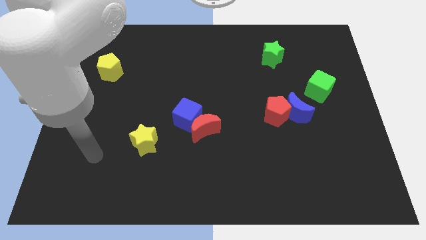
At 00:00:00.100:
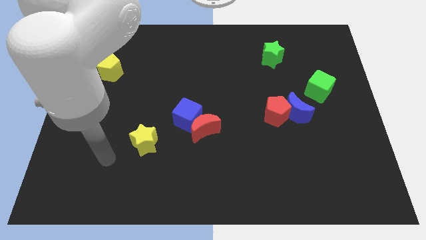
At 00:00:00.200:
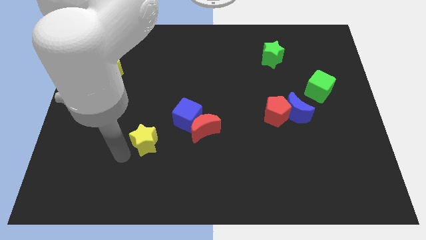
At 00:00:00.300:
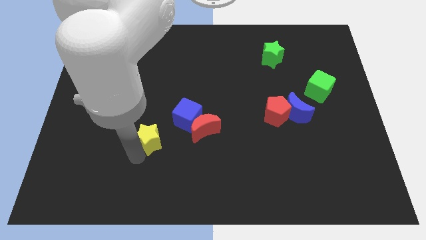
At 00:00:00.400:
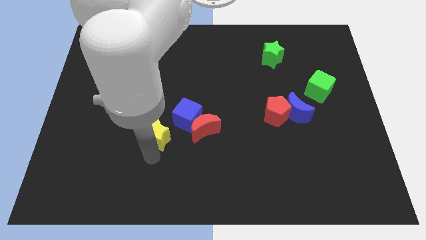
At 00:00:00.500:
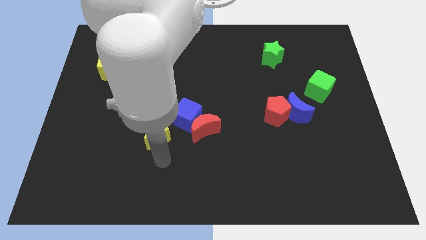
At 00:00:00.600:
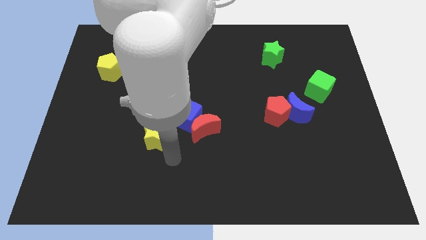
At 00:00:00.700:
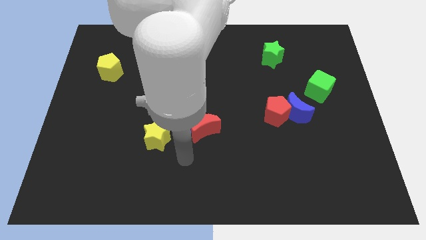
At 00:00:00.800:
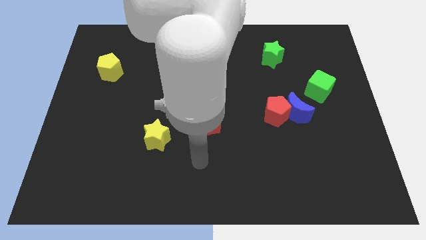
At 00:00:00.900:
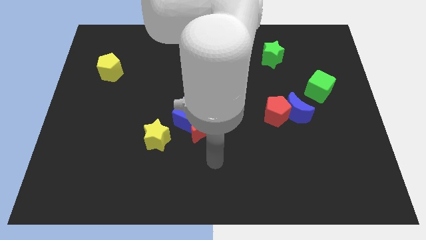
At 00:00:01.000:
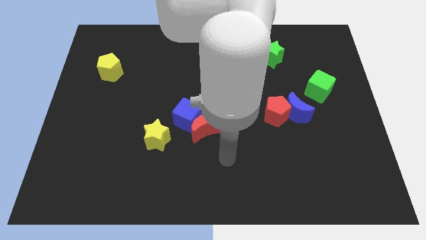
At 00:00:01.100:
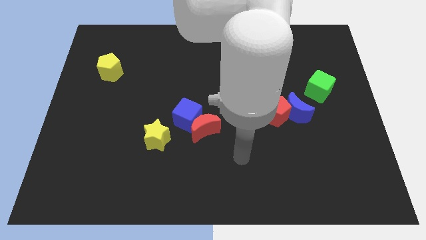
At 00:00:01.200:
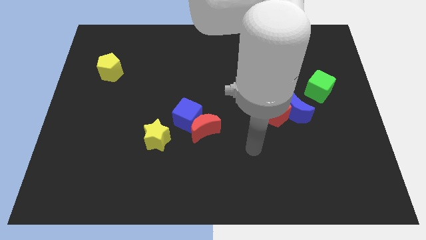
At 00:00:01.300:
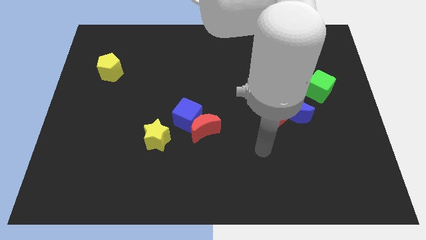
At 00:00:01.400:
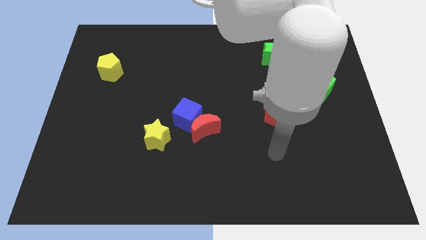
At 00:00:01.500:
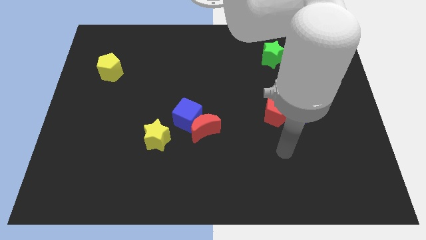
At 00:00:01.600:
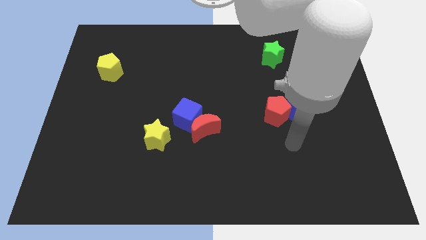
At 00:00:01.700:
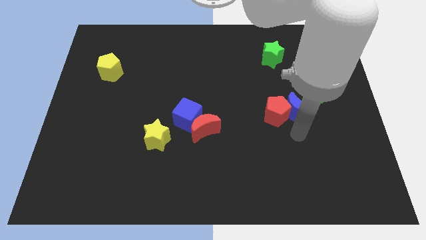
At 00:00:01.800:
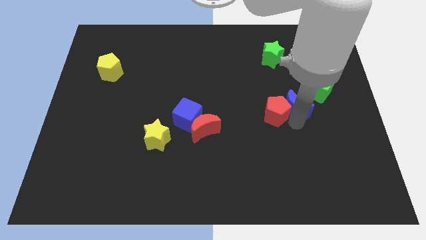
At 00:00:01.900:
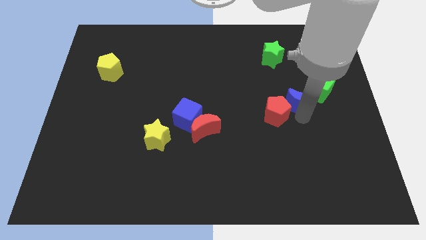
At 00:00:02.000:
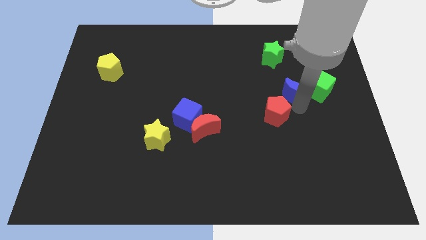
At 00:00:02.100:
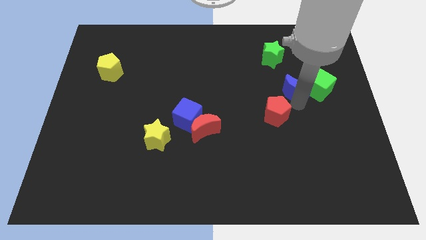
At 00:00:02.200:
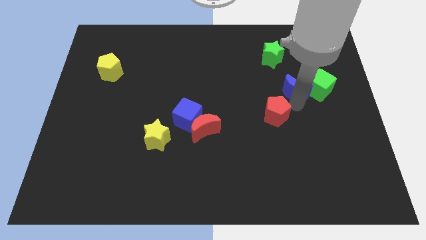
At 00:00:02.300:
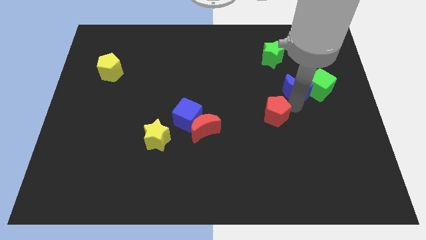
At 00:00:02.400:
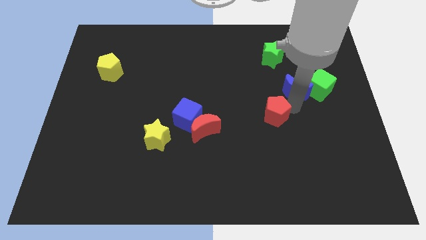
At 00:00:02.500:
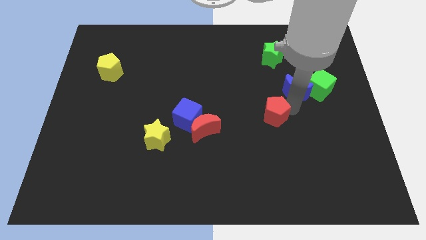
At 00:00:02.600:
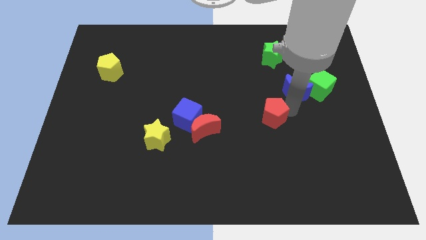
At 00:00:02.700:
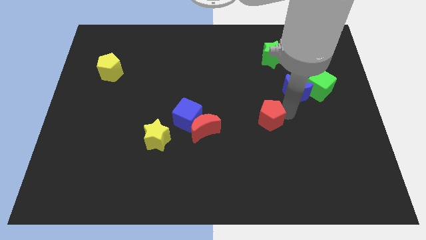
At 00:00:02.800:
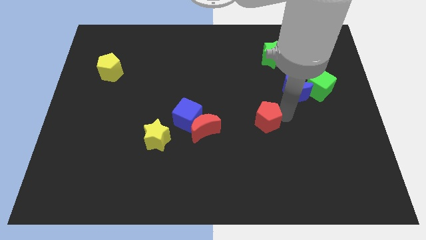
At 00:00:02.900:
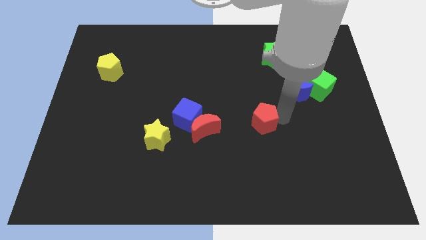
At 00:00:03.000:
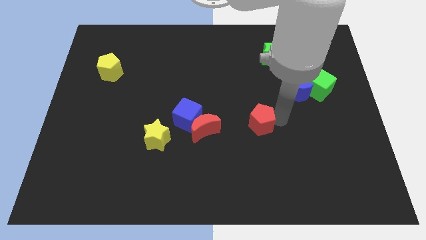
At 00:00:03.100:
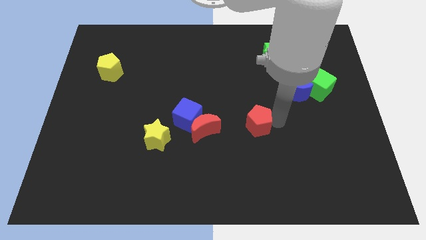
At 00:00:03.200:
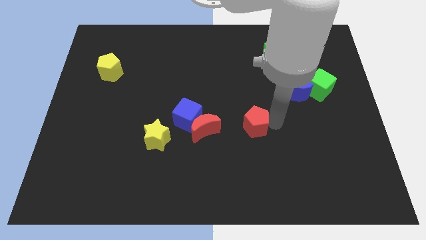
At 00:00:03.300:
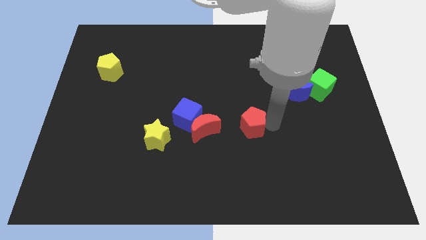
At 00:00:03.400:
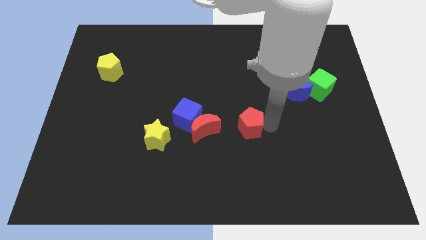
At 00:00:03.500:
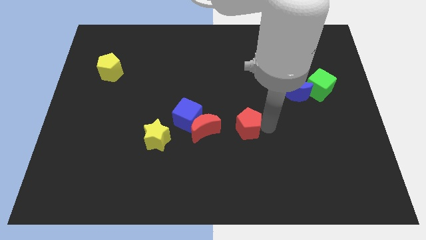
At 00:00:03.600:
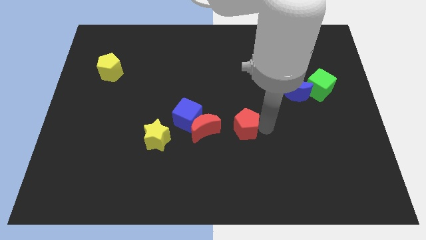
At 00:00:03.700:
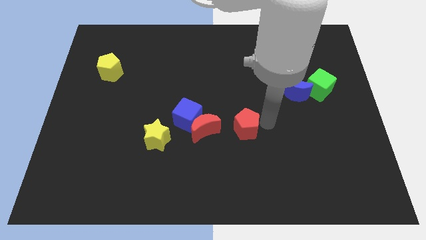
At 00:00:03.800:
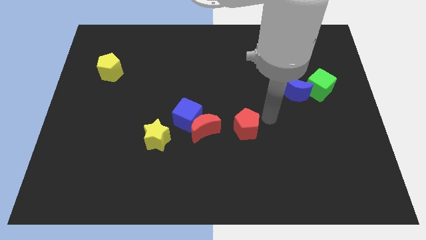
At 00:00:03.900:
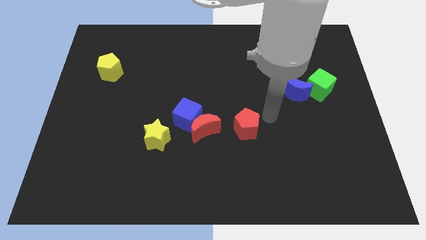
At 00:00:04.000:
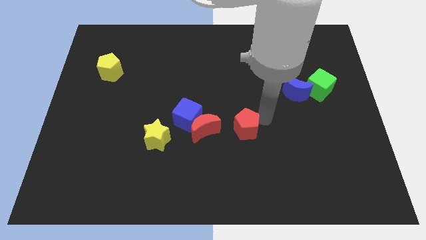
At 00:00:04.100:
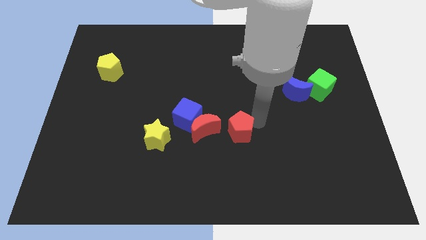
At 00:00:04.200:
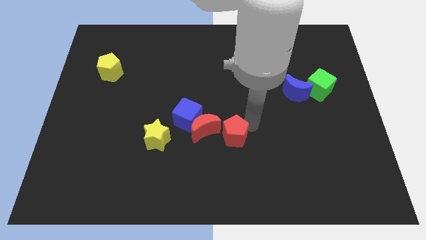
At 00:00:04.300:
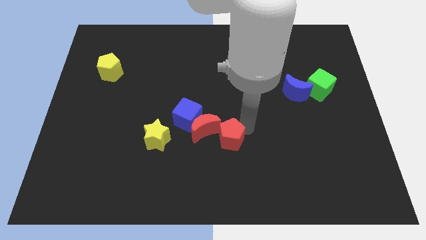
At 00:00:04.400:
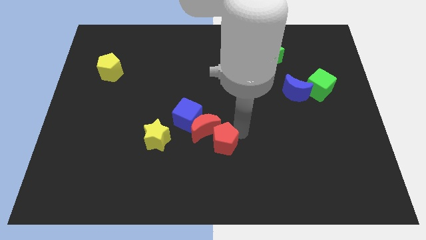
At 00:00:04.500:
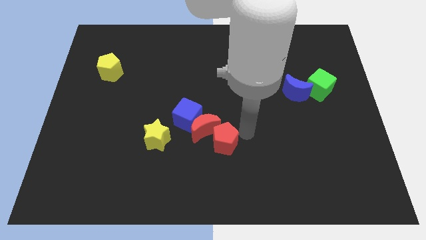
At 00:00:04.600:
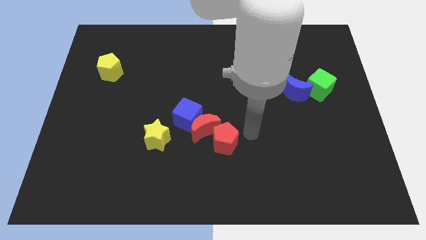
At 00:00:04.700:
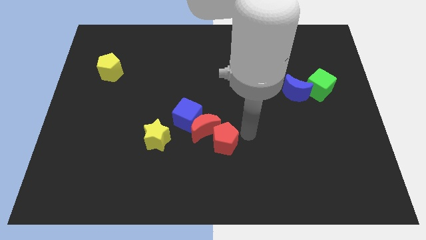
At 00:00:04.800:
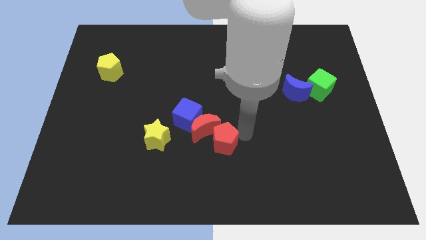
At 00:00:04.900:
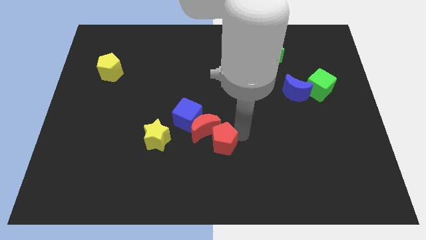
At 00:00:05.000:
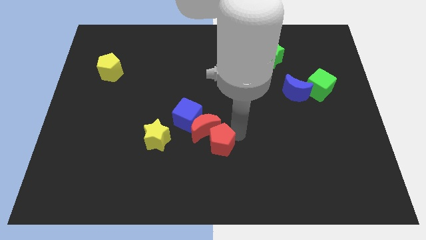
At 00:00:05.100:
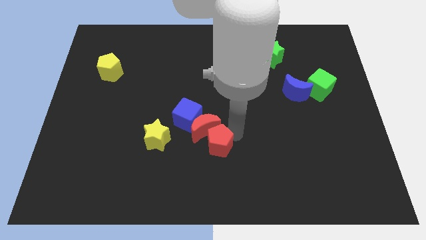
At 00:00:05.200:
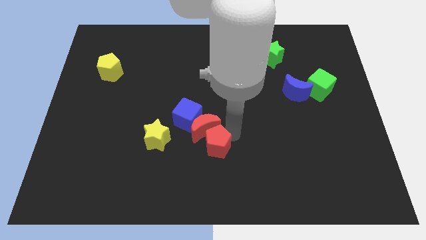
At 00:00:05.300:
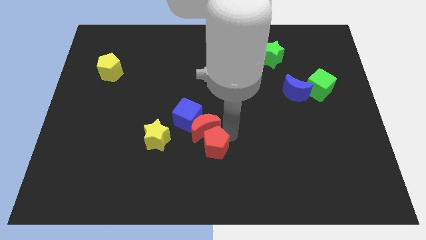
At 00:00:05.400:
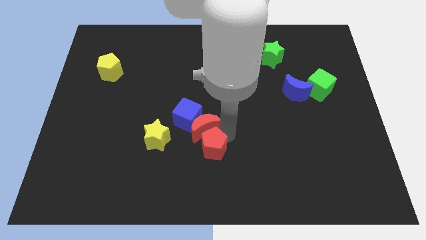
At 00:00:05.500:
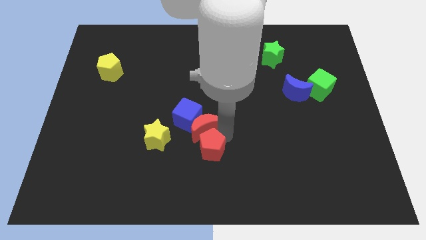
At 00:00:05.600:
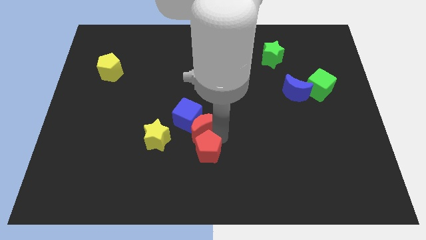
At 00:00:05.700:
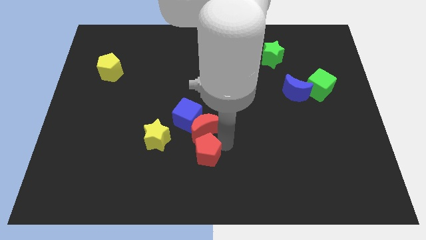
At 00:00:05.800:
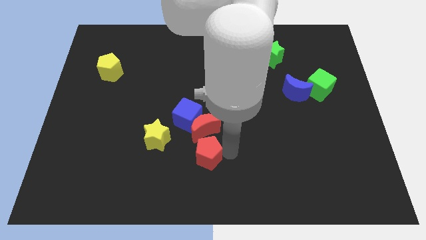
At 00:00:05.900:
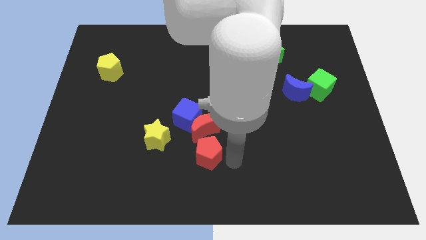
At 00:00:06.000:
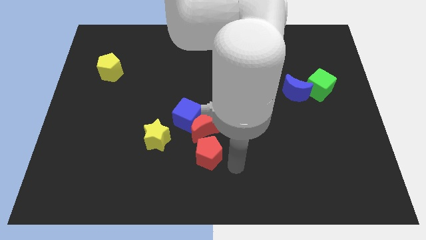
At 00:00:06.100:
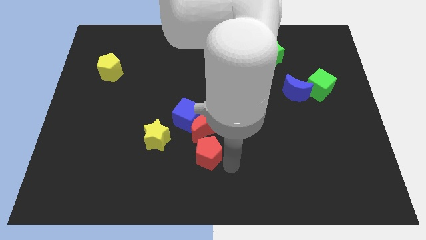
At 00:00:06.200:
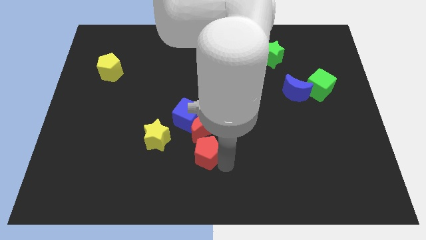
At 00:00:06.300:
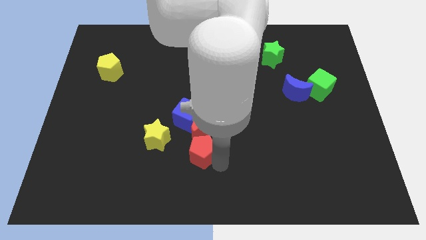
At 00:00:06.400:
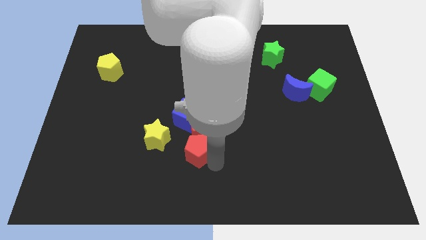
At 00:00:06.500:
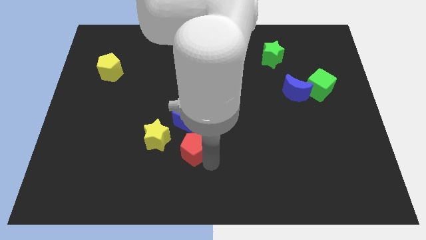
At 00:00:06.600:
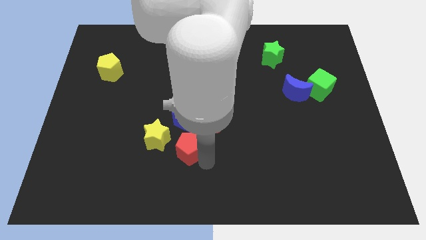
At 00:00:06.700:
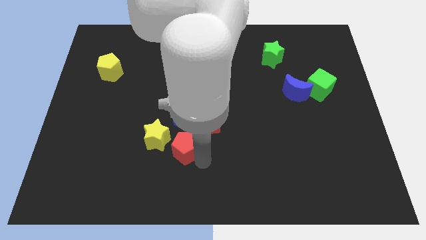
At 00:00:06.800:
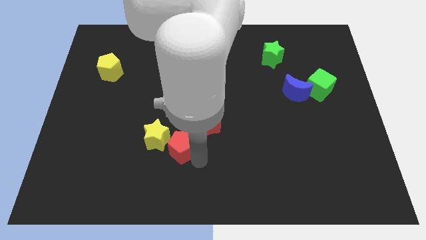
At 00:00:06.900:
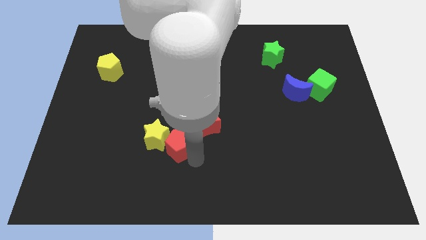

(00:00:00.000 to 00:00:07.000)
move the red pentagon to the bottom left of the blue cube

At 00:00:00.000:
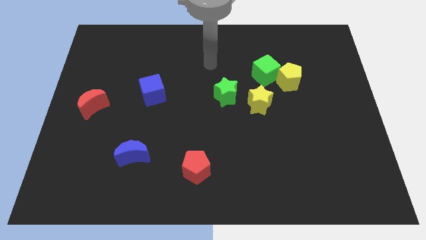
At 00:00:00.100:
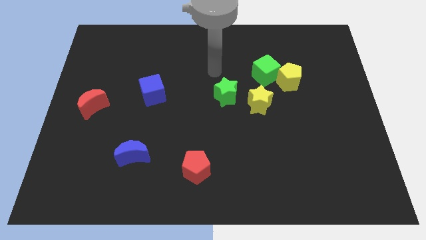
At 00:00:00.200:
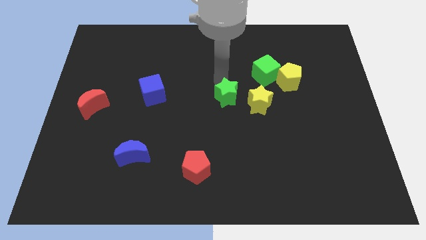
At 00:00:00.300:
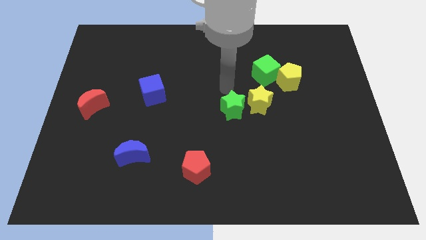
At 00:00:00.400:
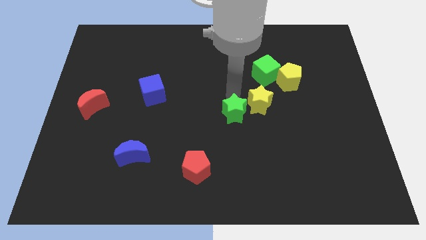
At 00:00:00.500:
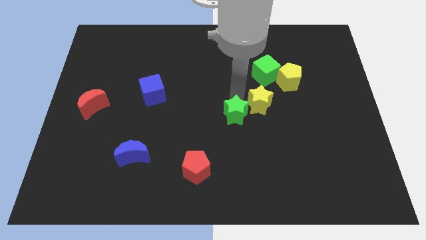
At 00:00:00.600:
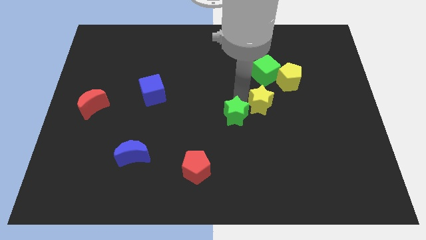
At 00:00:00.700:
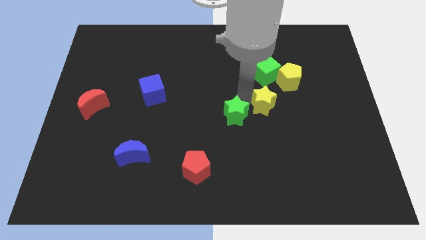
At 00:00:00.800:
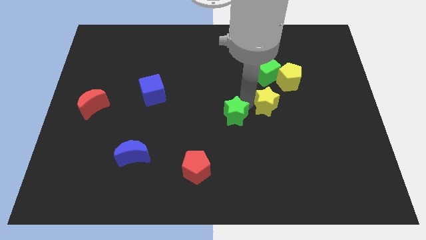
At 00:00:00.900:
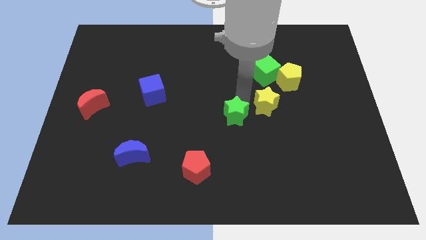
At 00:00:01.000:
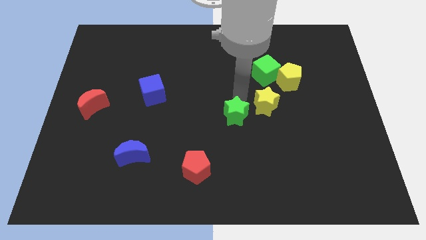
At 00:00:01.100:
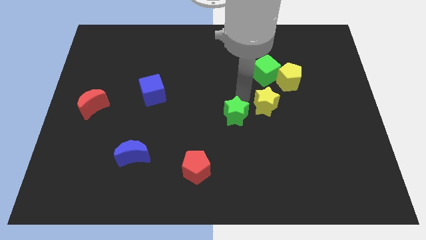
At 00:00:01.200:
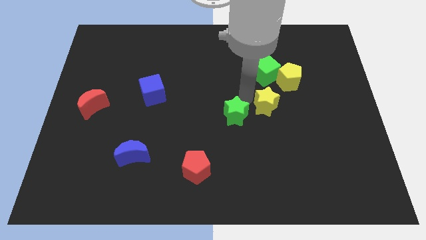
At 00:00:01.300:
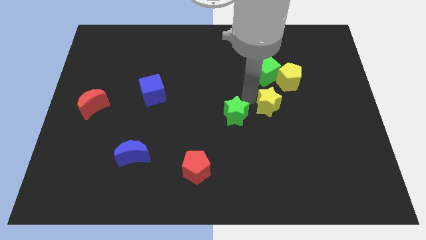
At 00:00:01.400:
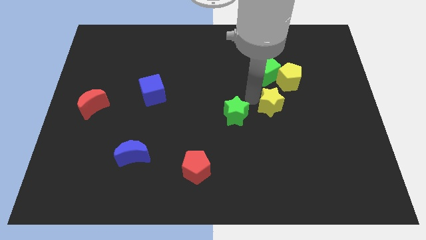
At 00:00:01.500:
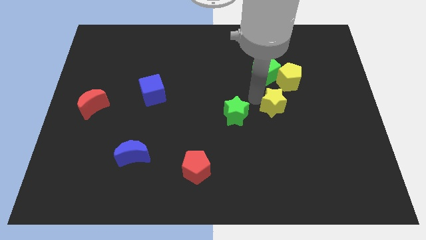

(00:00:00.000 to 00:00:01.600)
move the yellow star to the bottom side of the yellow pentagon
